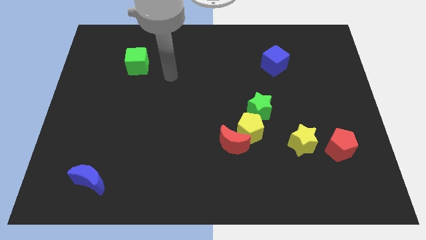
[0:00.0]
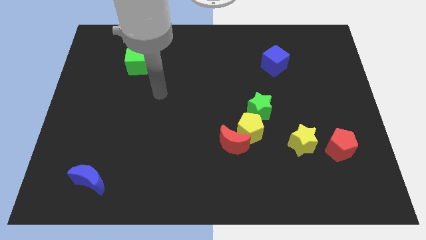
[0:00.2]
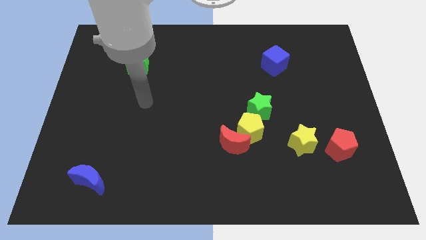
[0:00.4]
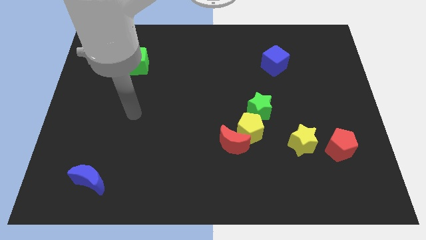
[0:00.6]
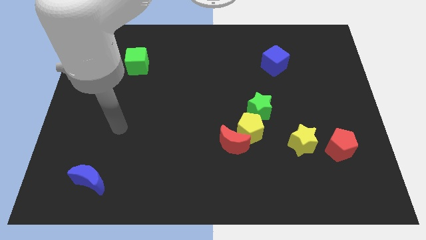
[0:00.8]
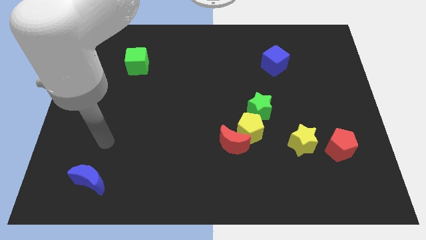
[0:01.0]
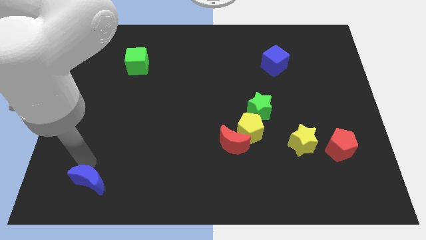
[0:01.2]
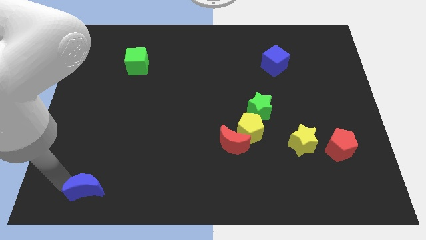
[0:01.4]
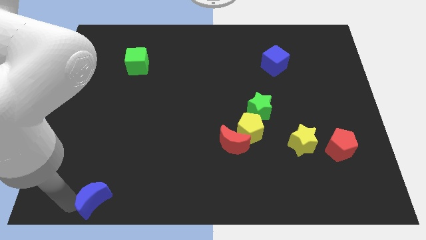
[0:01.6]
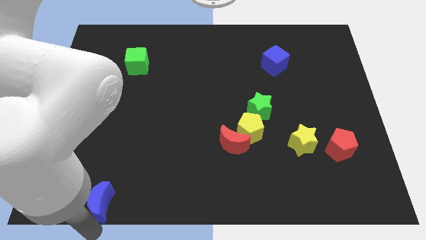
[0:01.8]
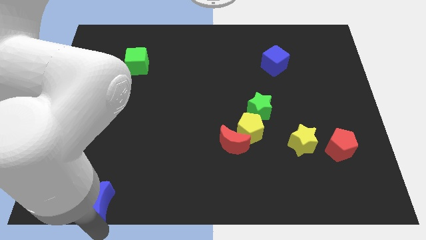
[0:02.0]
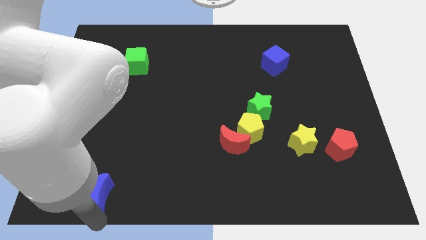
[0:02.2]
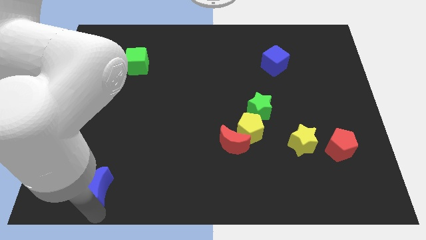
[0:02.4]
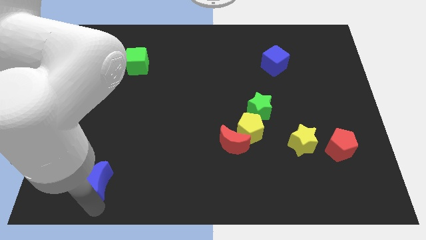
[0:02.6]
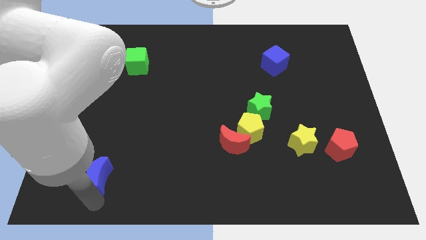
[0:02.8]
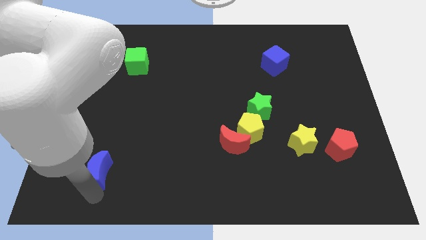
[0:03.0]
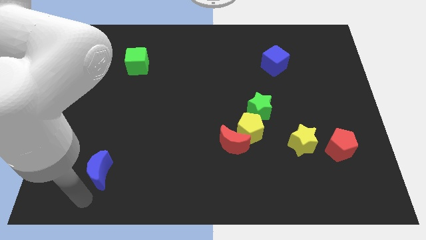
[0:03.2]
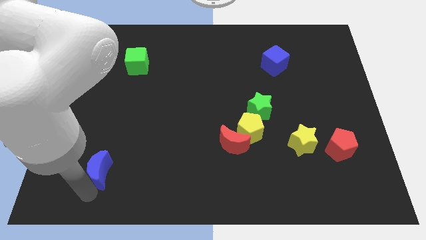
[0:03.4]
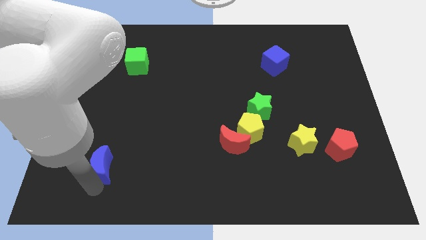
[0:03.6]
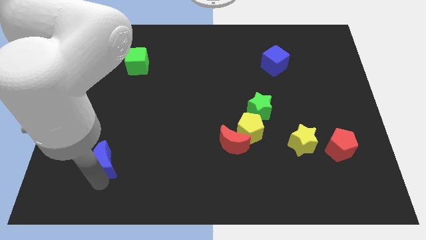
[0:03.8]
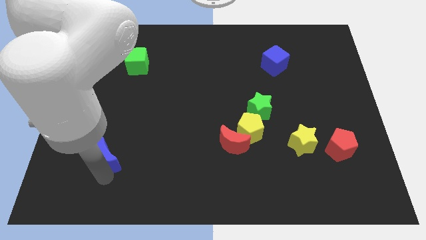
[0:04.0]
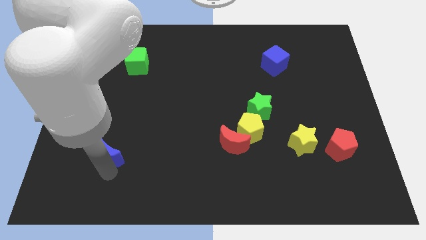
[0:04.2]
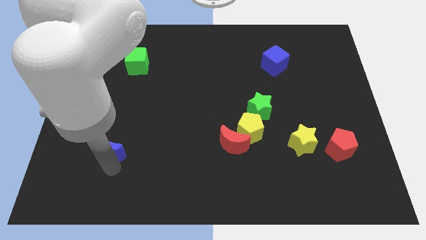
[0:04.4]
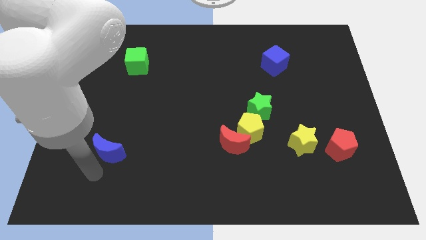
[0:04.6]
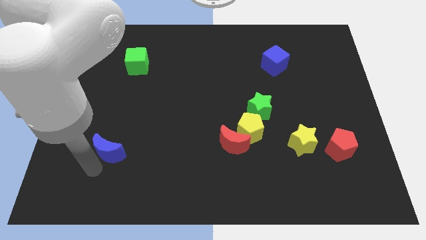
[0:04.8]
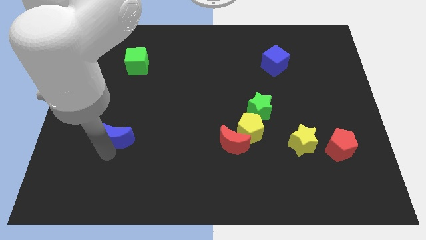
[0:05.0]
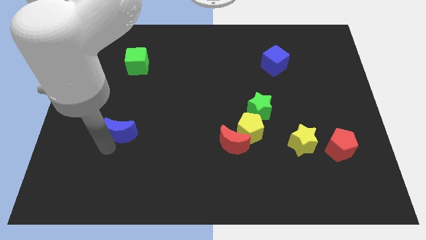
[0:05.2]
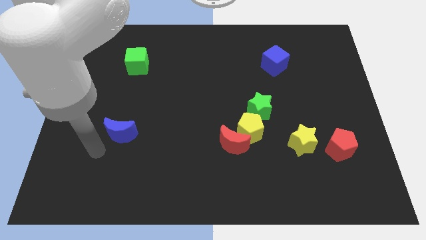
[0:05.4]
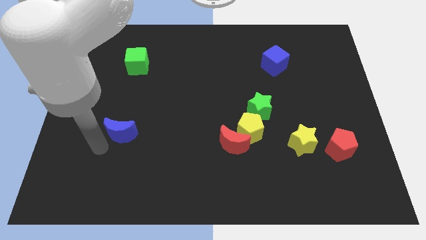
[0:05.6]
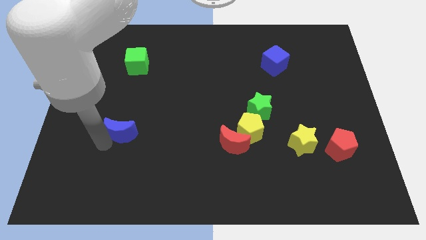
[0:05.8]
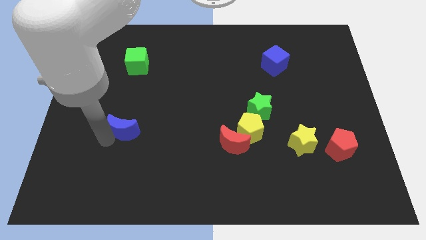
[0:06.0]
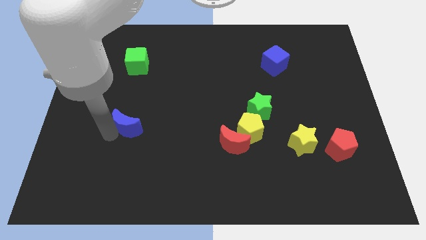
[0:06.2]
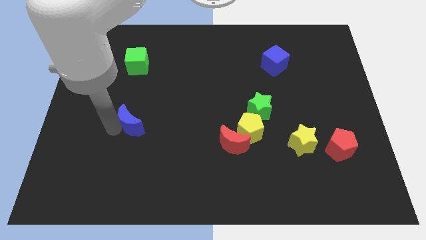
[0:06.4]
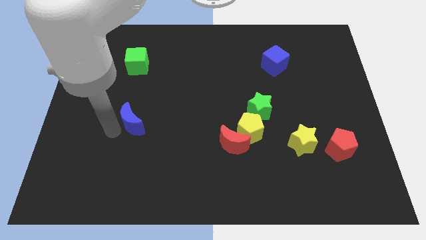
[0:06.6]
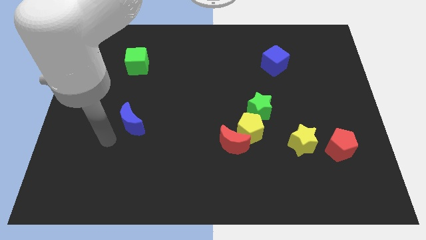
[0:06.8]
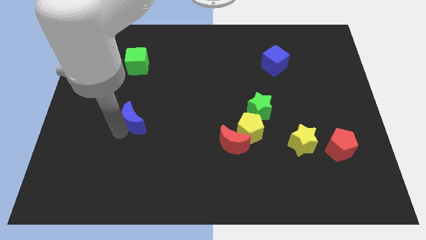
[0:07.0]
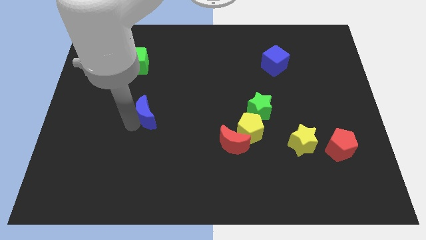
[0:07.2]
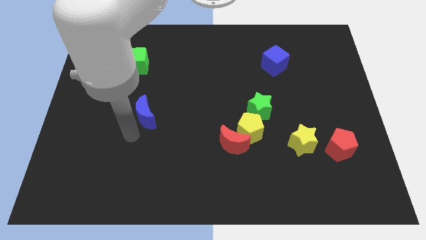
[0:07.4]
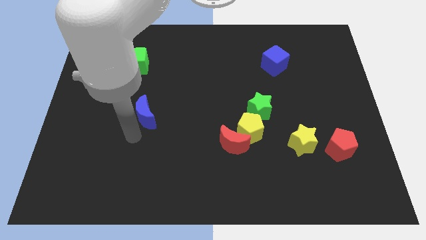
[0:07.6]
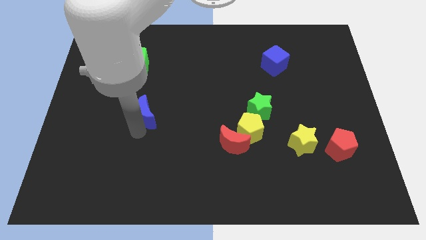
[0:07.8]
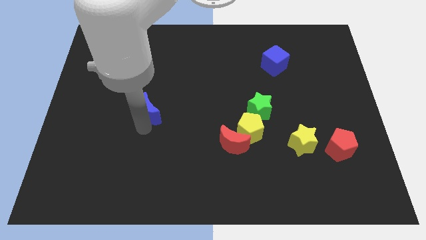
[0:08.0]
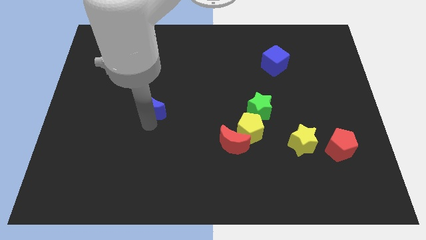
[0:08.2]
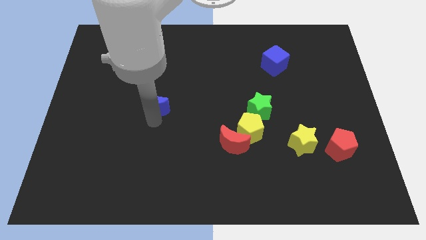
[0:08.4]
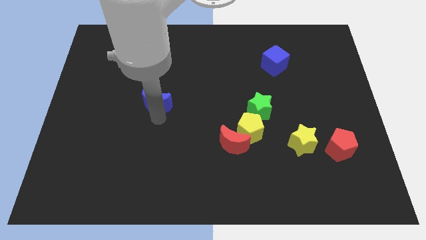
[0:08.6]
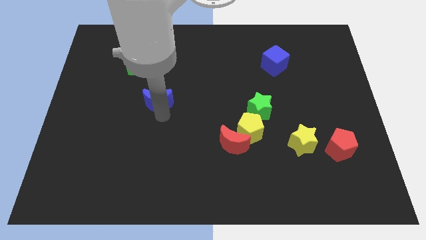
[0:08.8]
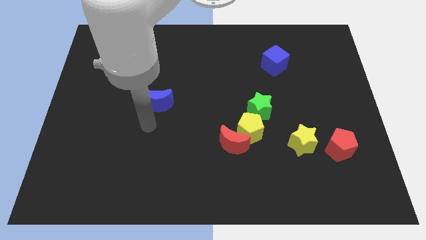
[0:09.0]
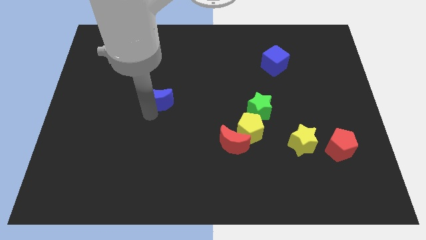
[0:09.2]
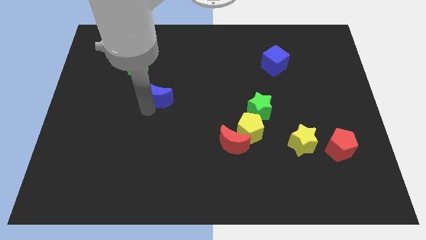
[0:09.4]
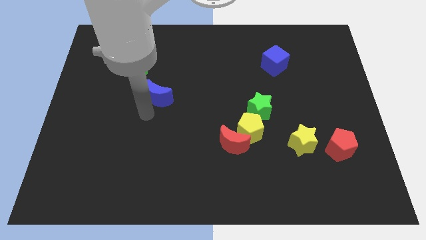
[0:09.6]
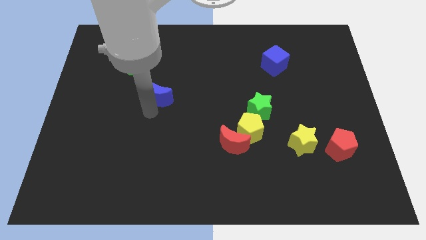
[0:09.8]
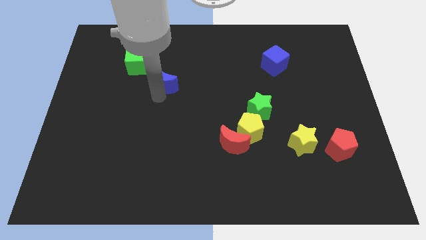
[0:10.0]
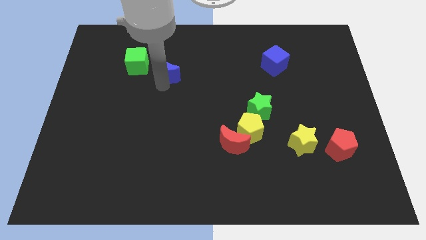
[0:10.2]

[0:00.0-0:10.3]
push the blue moon to the right side of the green cube

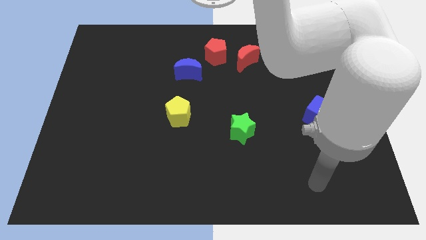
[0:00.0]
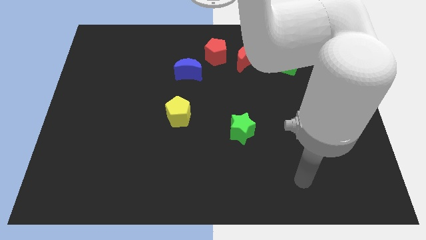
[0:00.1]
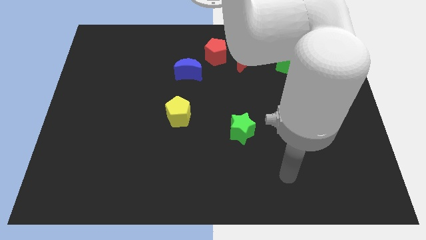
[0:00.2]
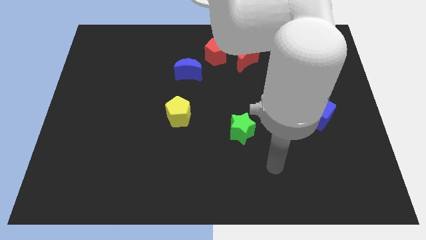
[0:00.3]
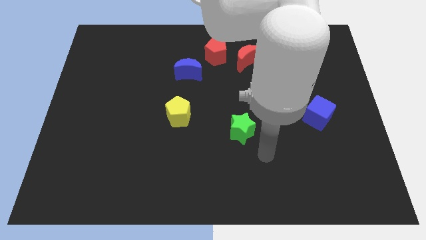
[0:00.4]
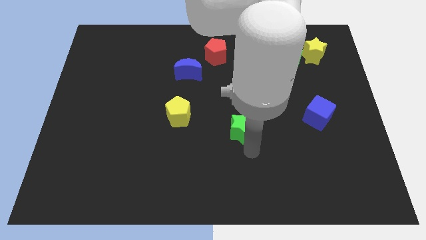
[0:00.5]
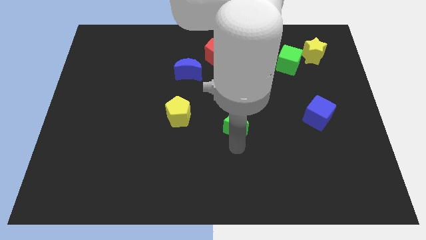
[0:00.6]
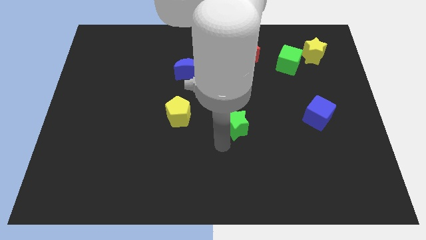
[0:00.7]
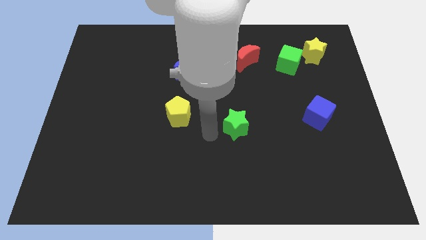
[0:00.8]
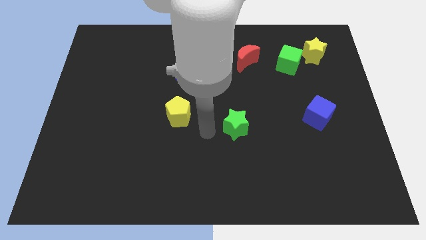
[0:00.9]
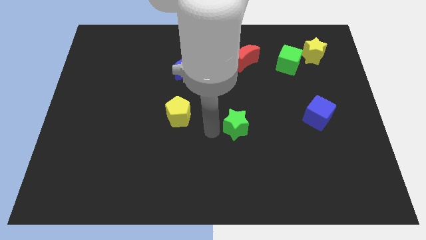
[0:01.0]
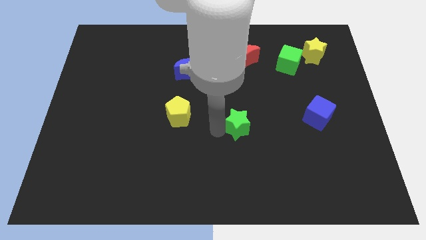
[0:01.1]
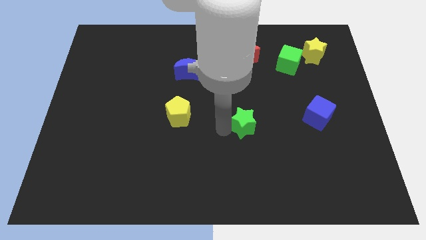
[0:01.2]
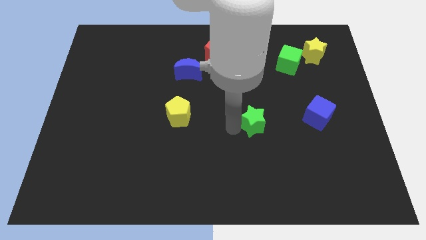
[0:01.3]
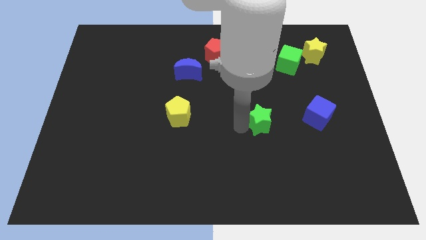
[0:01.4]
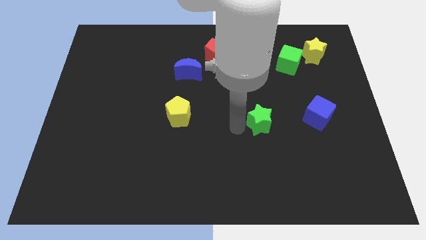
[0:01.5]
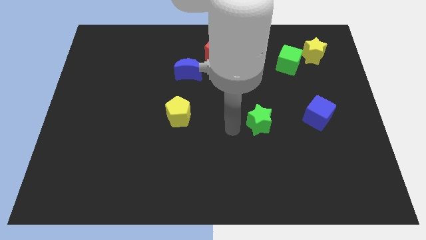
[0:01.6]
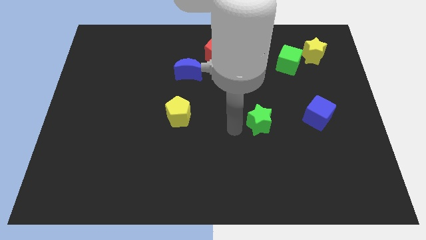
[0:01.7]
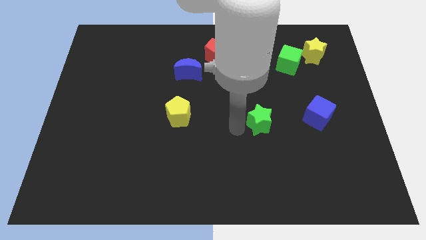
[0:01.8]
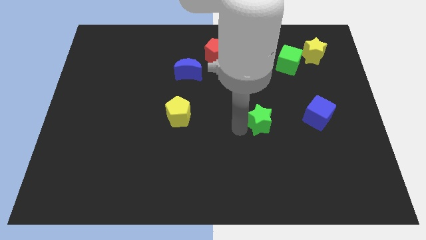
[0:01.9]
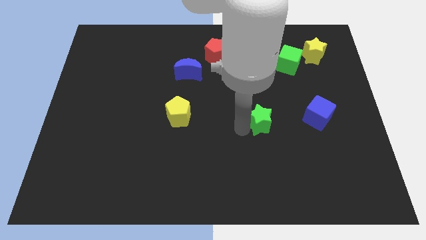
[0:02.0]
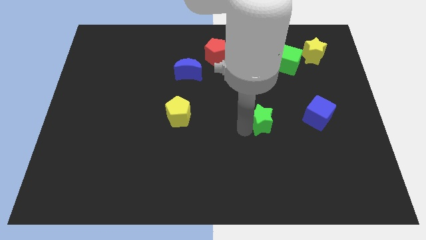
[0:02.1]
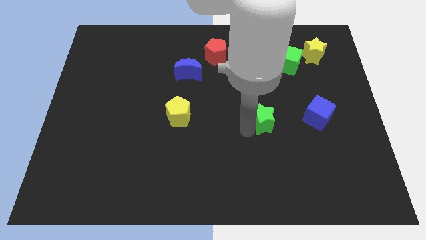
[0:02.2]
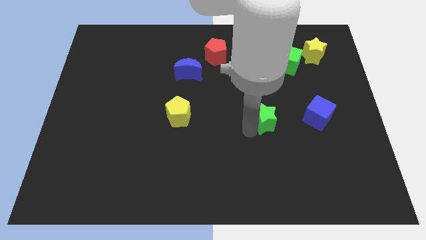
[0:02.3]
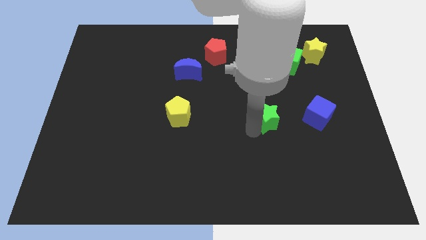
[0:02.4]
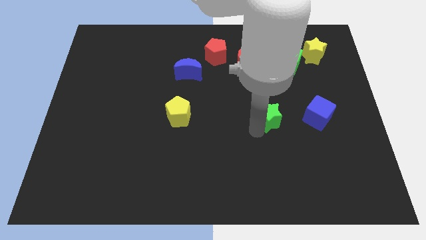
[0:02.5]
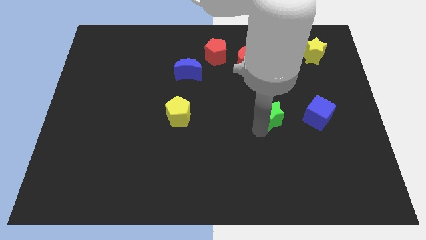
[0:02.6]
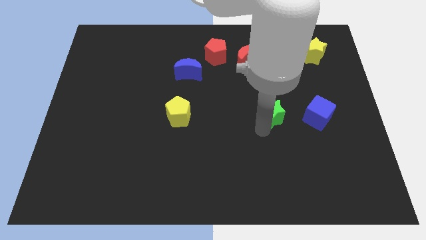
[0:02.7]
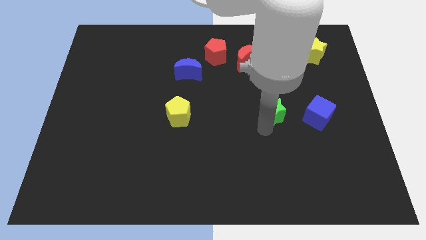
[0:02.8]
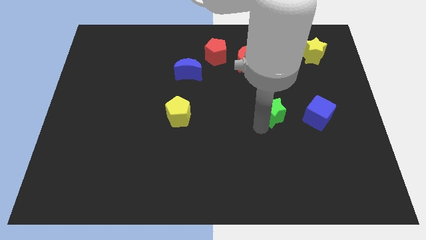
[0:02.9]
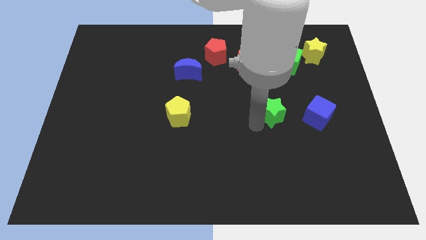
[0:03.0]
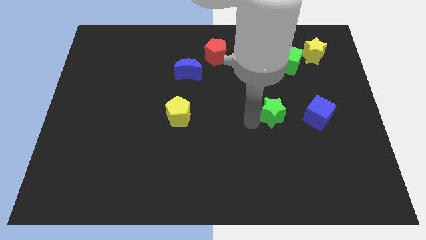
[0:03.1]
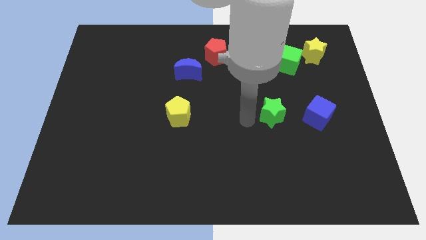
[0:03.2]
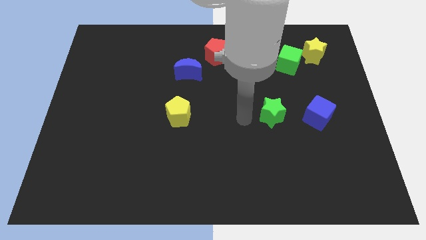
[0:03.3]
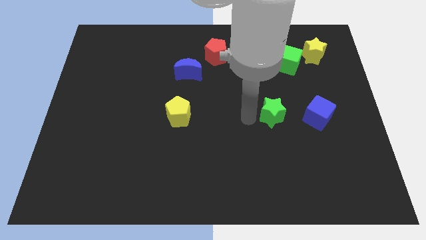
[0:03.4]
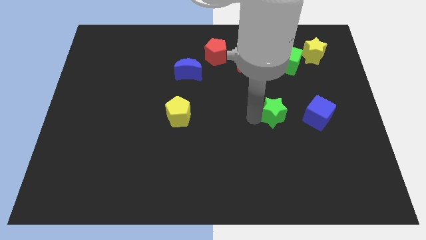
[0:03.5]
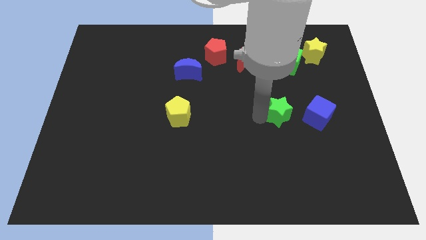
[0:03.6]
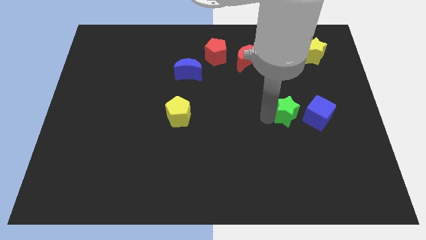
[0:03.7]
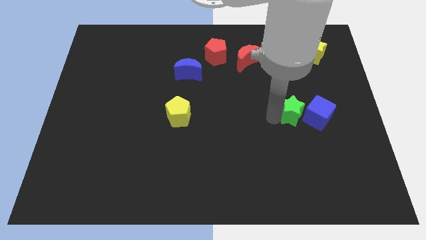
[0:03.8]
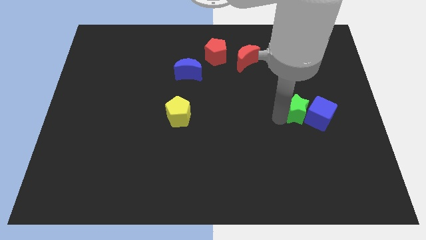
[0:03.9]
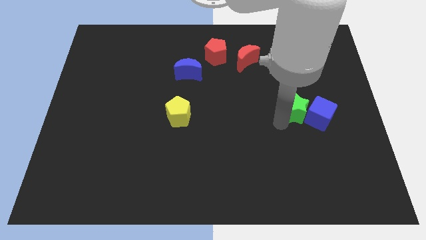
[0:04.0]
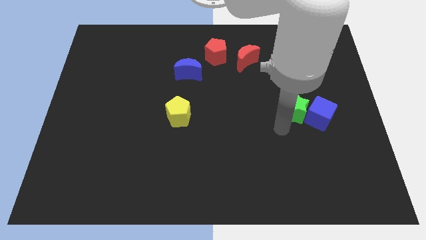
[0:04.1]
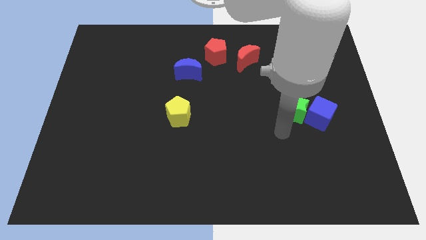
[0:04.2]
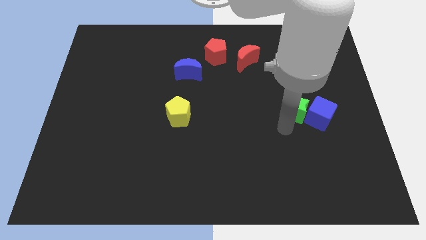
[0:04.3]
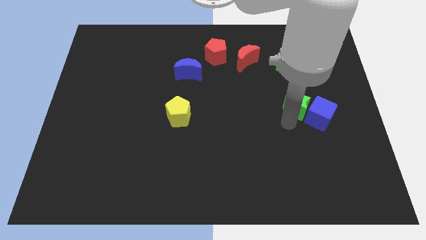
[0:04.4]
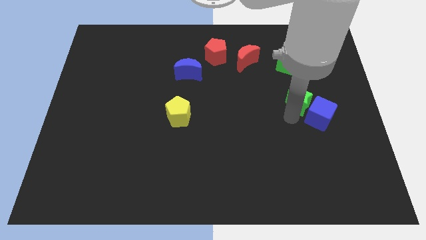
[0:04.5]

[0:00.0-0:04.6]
put the green star to the top side of the blue cube
